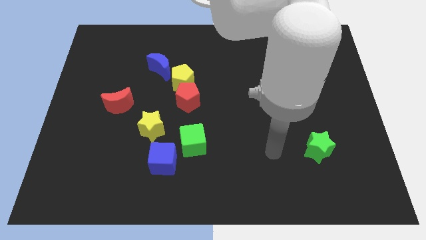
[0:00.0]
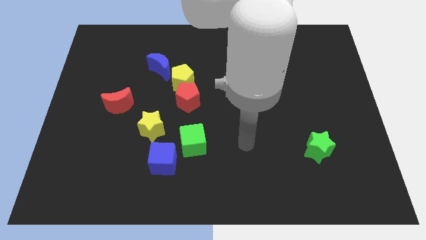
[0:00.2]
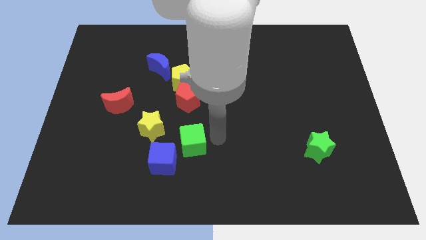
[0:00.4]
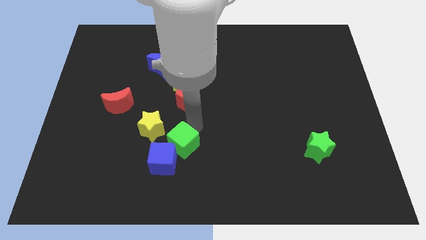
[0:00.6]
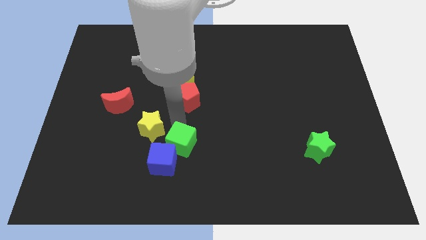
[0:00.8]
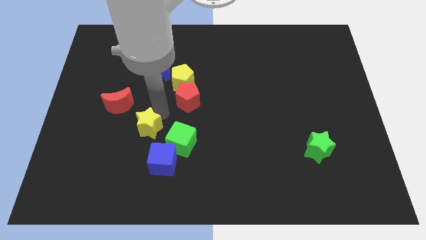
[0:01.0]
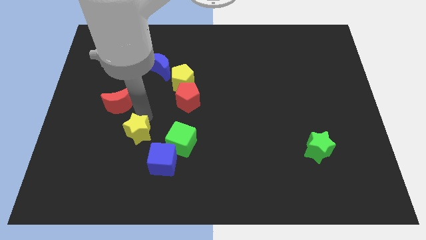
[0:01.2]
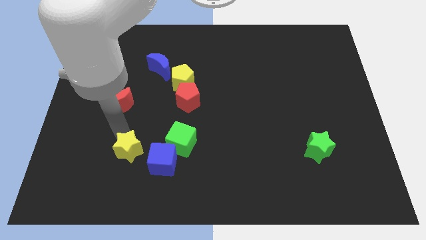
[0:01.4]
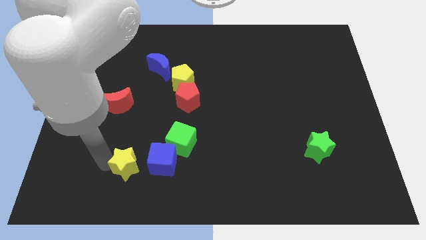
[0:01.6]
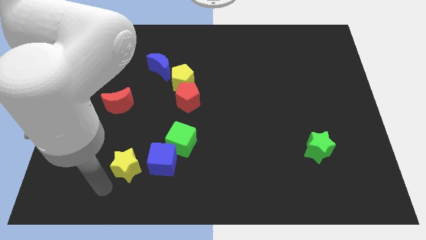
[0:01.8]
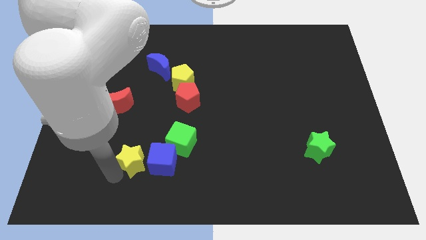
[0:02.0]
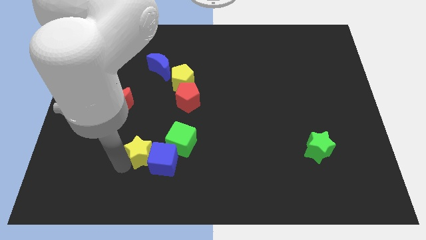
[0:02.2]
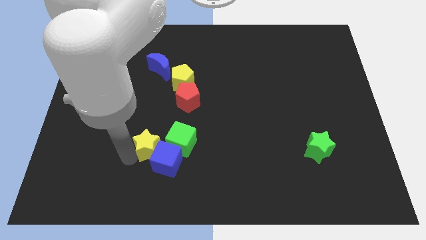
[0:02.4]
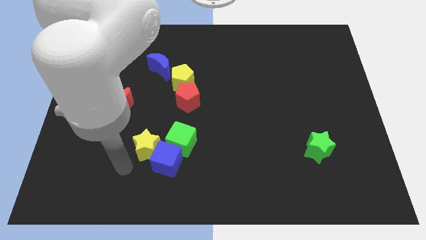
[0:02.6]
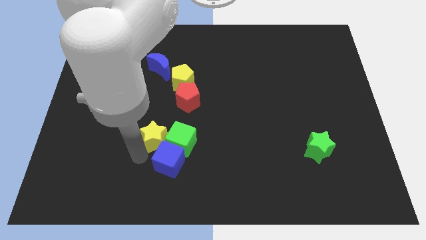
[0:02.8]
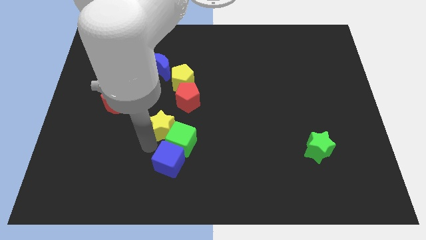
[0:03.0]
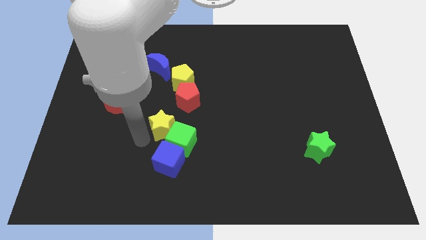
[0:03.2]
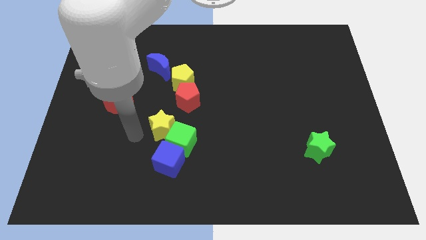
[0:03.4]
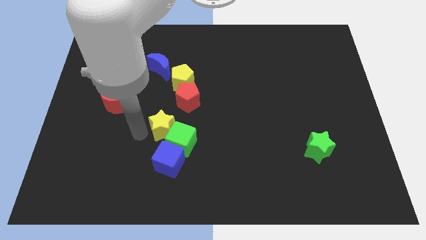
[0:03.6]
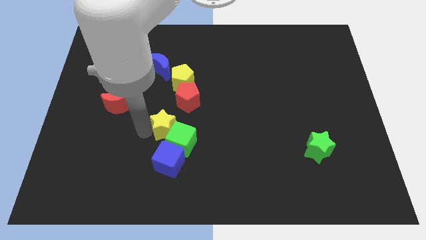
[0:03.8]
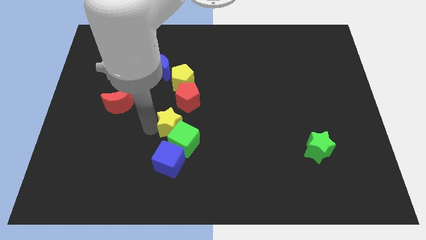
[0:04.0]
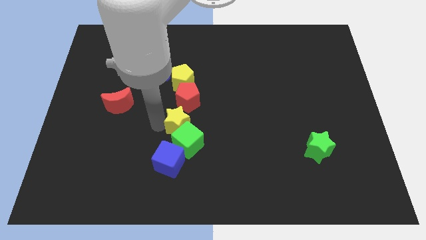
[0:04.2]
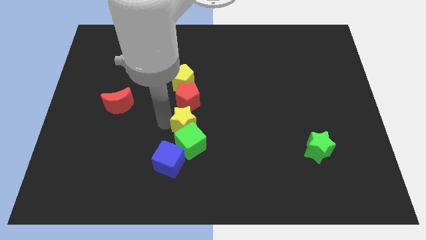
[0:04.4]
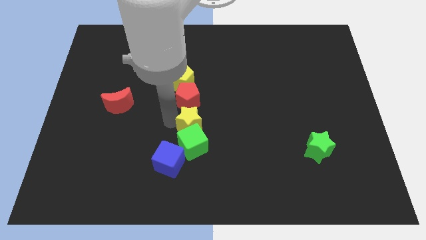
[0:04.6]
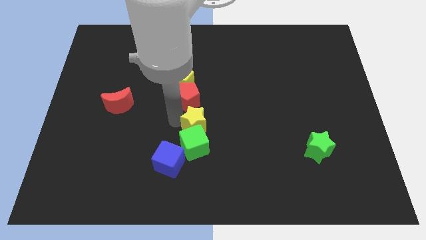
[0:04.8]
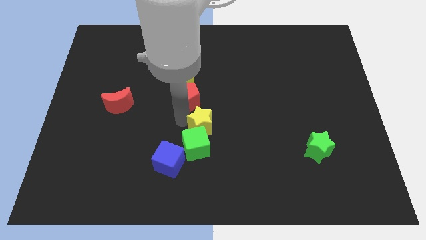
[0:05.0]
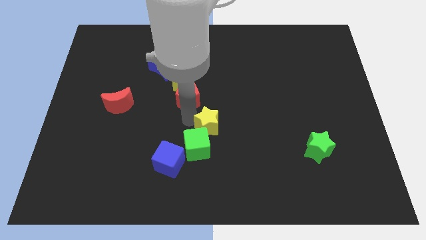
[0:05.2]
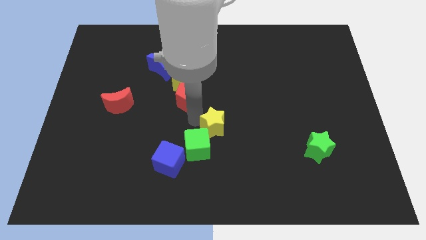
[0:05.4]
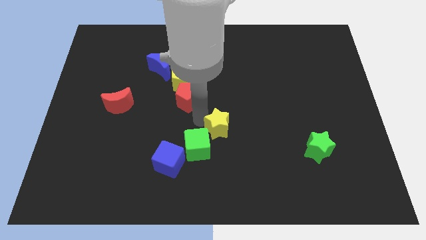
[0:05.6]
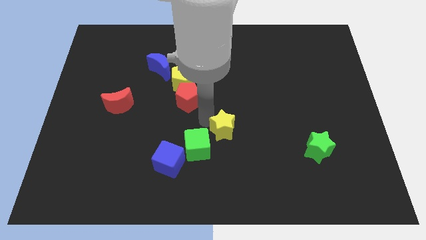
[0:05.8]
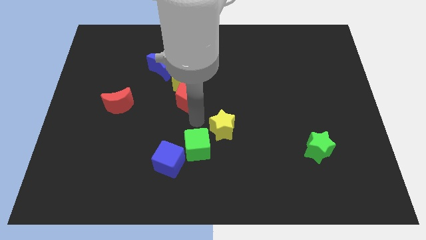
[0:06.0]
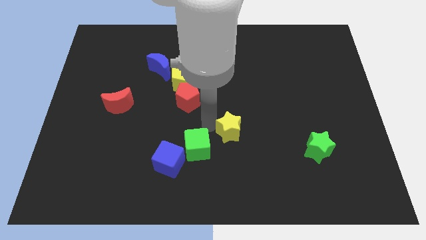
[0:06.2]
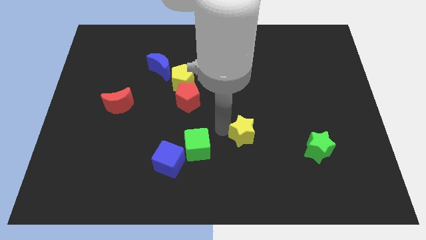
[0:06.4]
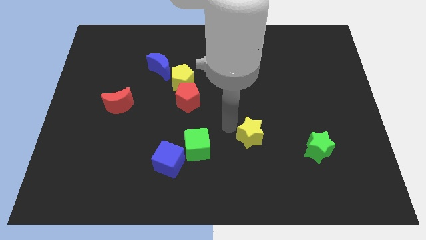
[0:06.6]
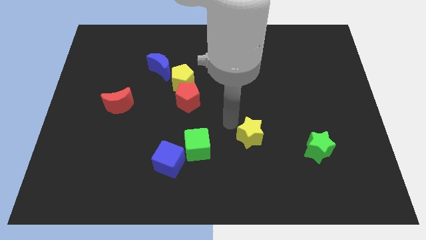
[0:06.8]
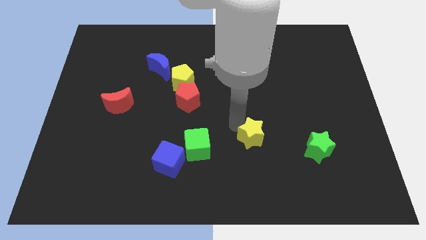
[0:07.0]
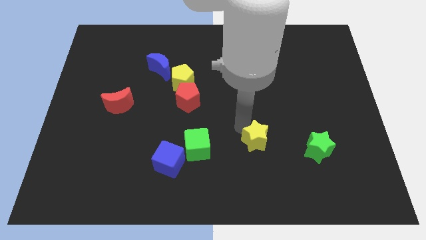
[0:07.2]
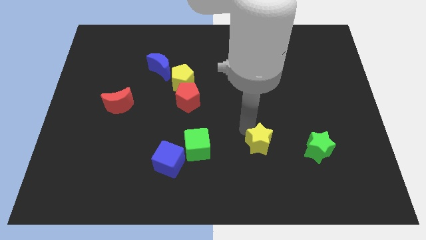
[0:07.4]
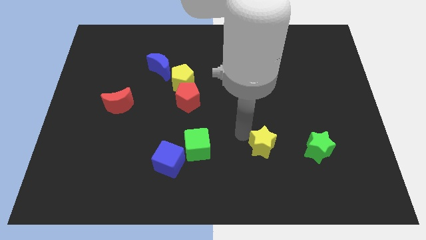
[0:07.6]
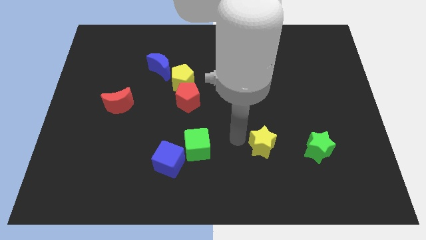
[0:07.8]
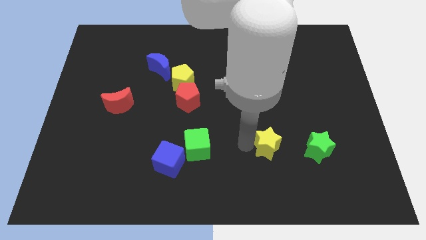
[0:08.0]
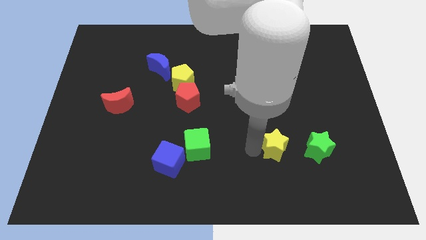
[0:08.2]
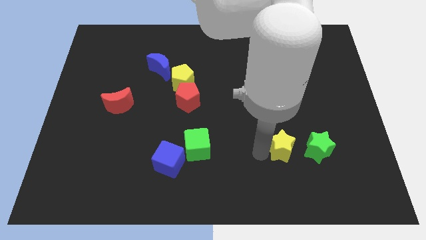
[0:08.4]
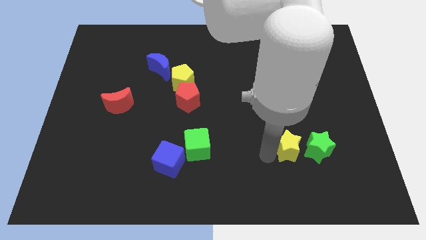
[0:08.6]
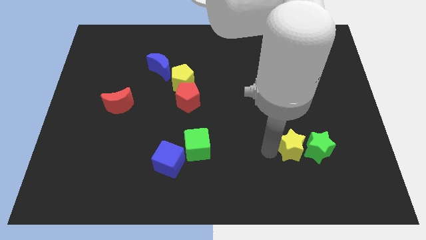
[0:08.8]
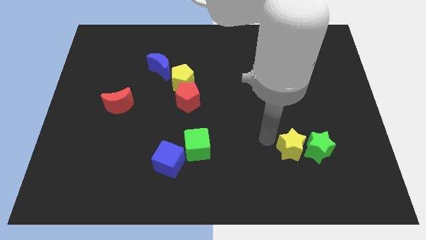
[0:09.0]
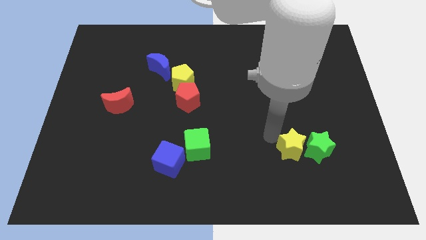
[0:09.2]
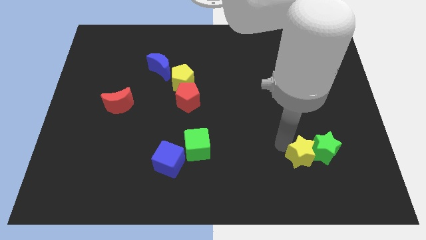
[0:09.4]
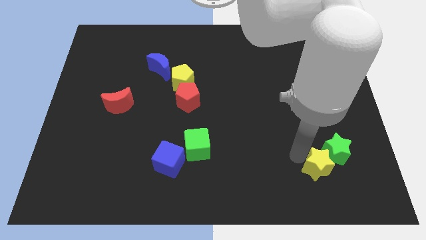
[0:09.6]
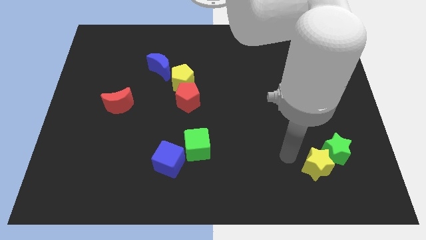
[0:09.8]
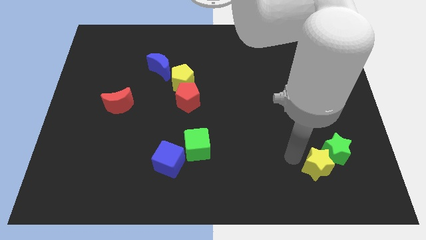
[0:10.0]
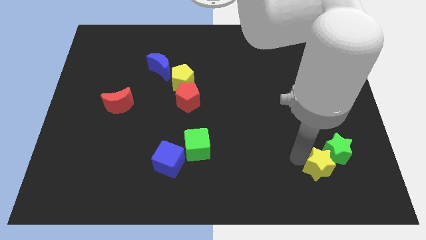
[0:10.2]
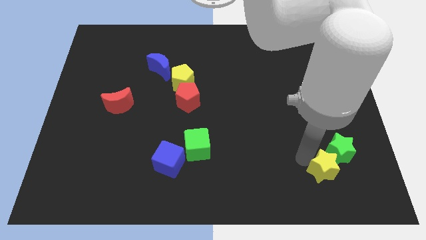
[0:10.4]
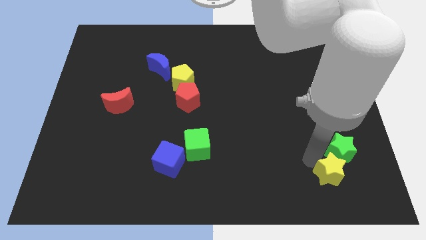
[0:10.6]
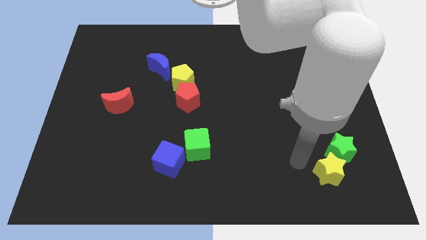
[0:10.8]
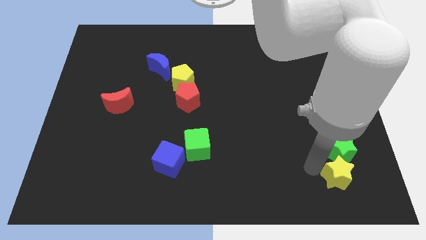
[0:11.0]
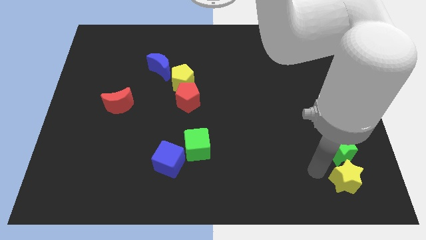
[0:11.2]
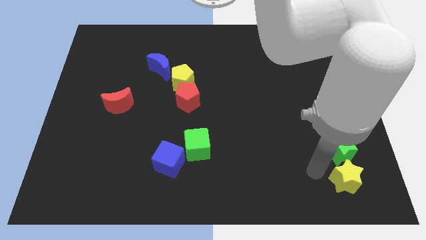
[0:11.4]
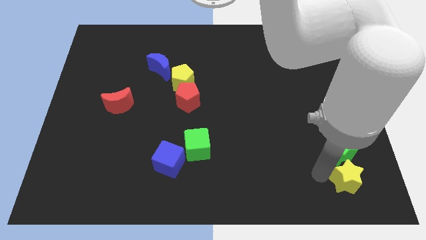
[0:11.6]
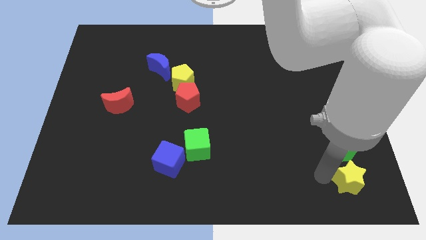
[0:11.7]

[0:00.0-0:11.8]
push the yellow star to the bottom right corner

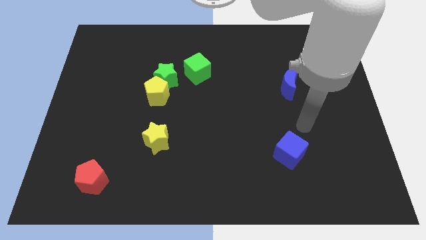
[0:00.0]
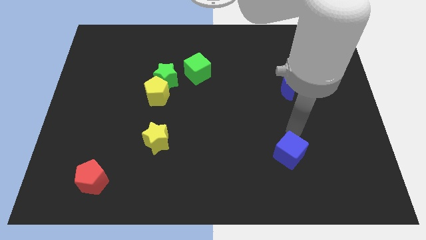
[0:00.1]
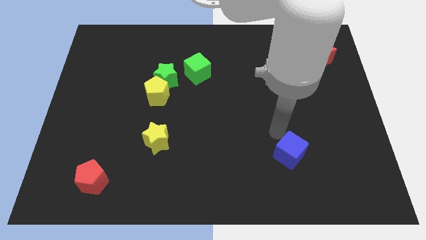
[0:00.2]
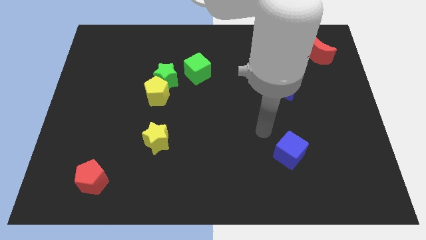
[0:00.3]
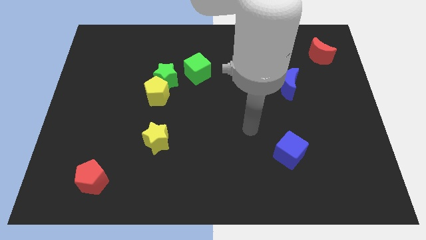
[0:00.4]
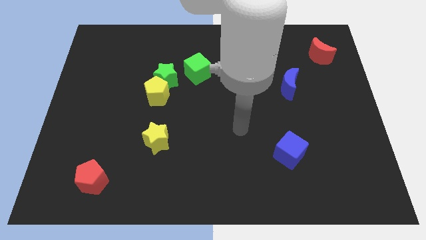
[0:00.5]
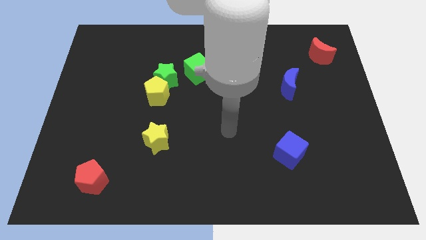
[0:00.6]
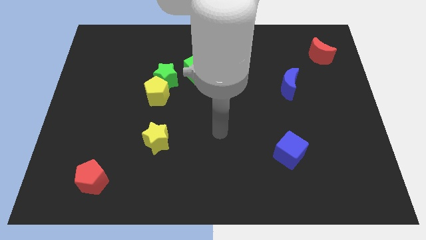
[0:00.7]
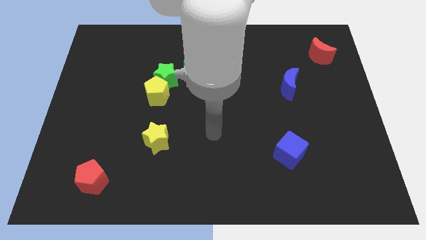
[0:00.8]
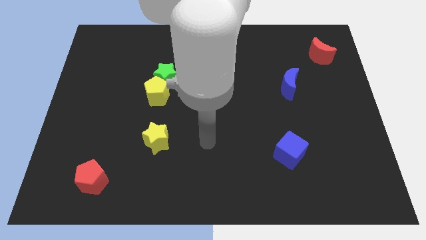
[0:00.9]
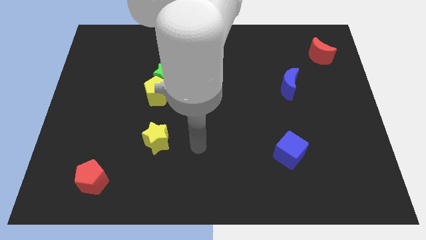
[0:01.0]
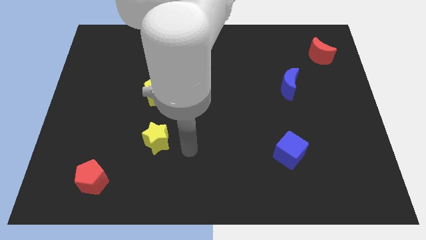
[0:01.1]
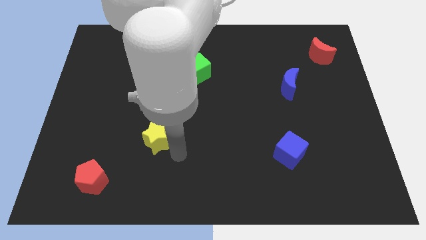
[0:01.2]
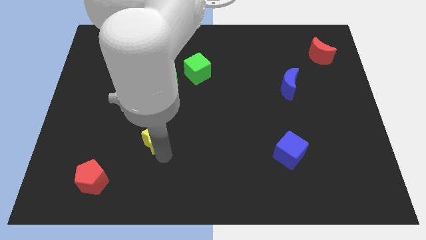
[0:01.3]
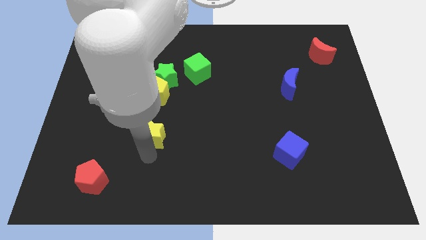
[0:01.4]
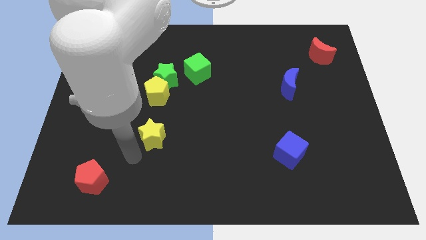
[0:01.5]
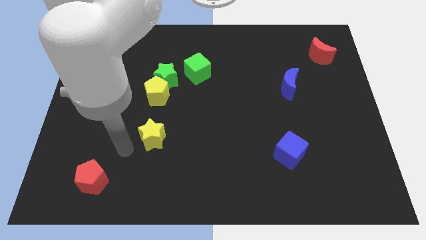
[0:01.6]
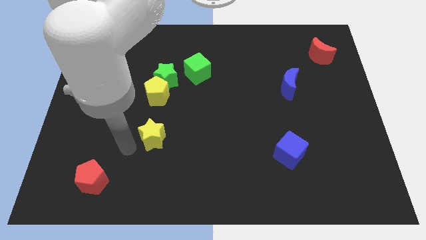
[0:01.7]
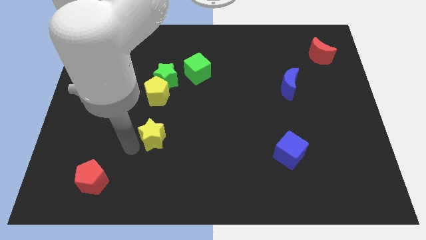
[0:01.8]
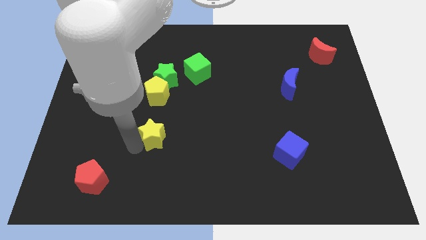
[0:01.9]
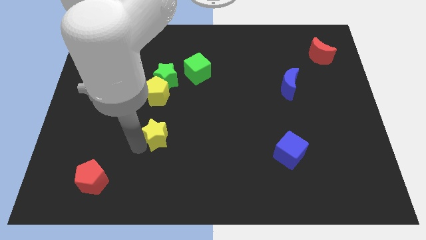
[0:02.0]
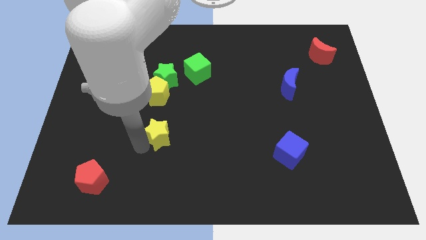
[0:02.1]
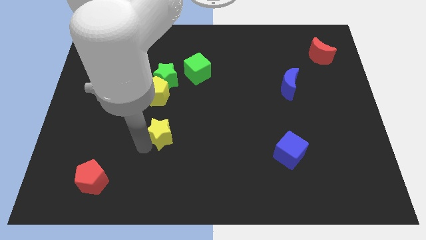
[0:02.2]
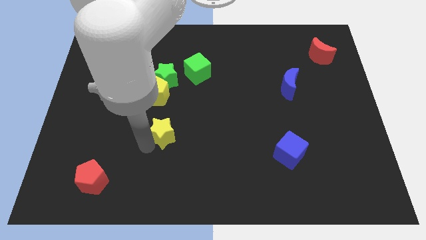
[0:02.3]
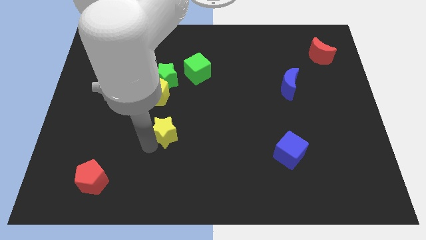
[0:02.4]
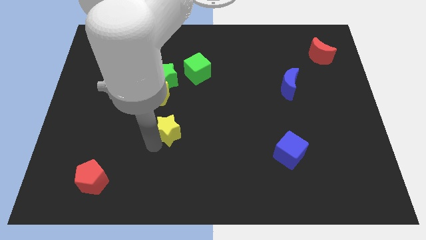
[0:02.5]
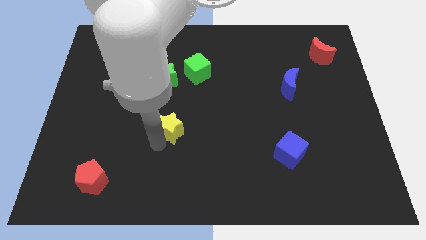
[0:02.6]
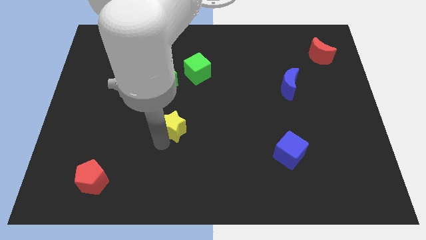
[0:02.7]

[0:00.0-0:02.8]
put the yellow star to the middle of the board
